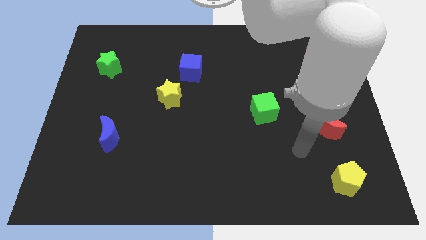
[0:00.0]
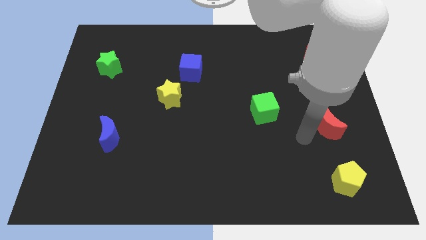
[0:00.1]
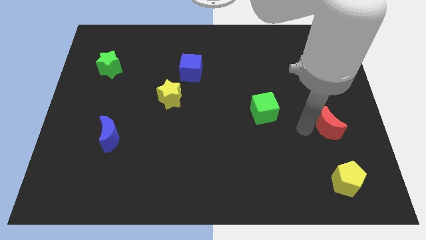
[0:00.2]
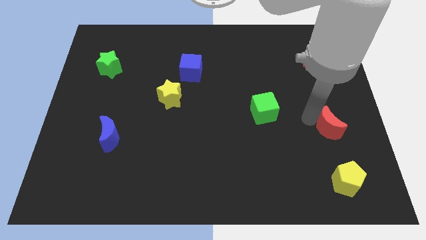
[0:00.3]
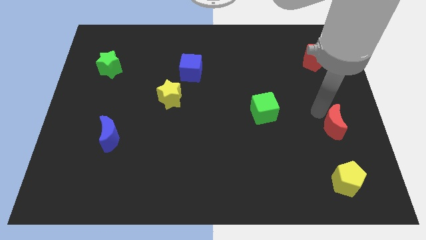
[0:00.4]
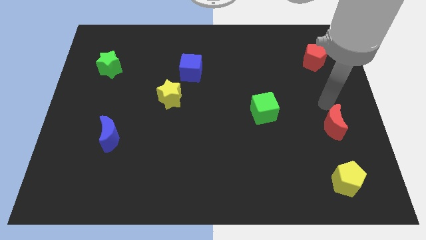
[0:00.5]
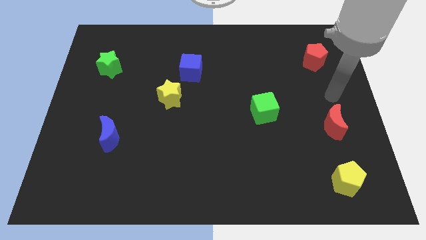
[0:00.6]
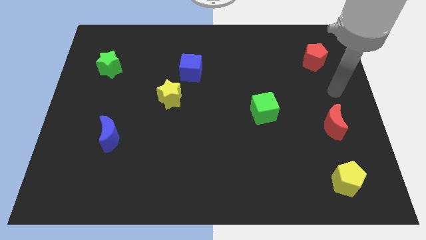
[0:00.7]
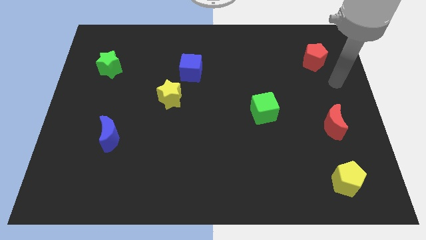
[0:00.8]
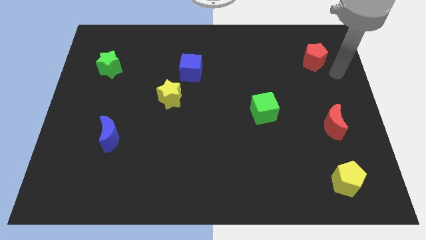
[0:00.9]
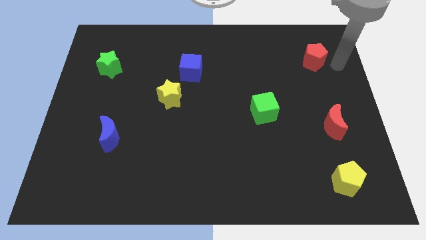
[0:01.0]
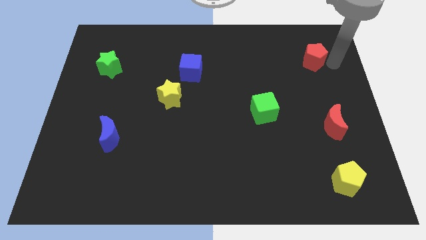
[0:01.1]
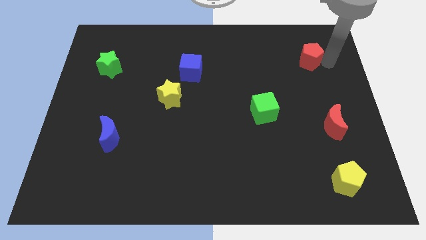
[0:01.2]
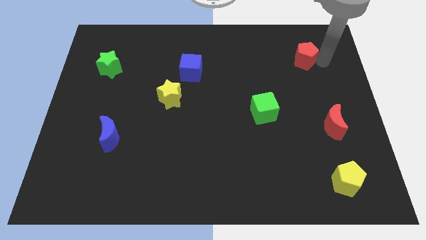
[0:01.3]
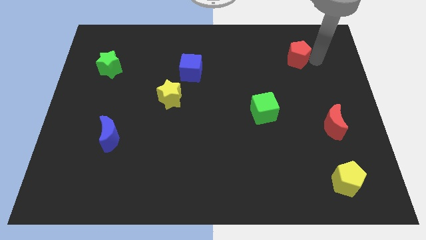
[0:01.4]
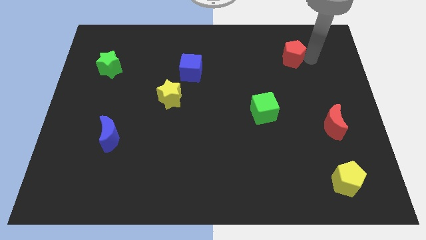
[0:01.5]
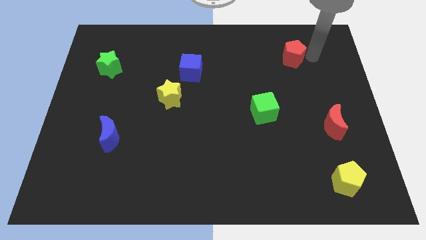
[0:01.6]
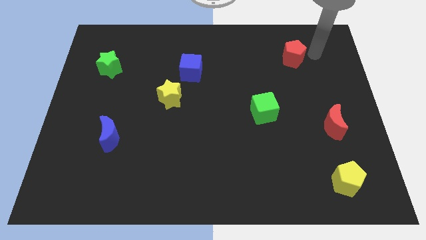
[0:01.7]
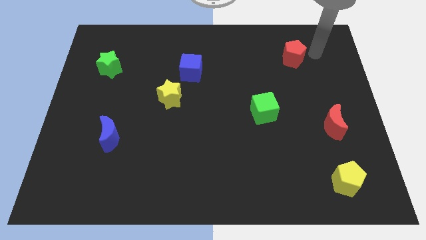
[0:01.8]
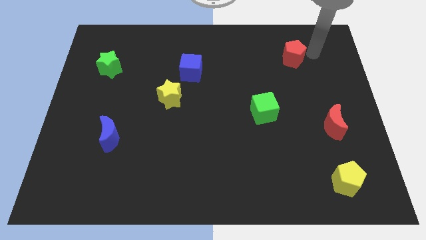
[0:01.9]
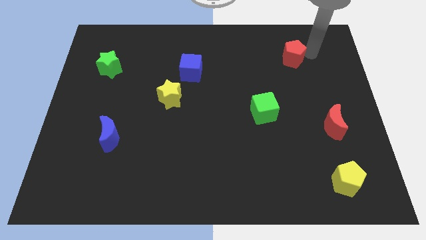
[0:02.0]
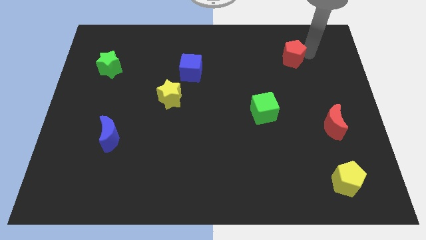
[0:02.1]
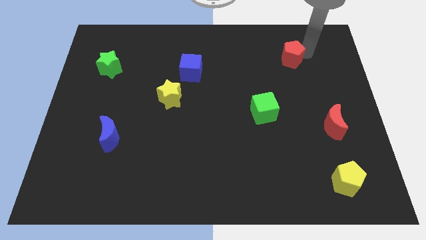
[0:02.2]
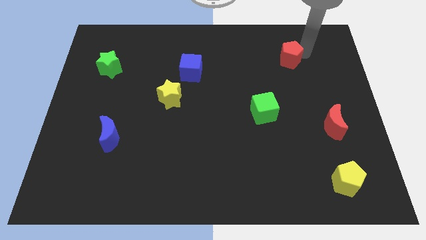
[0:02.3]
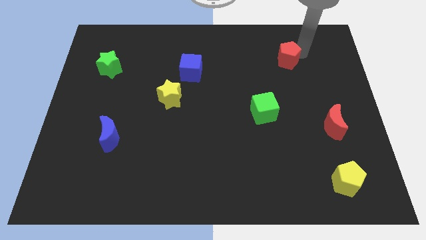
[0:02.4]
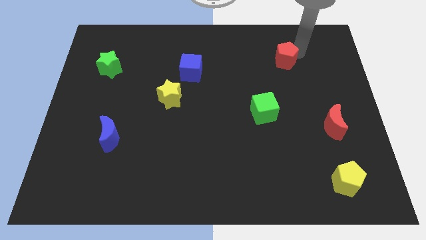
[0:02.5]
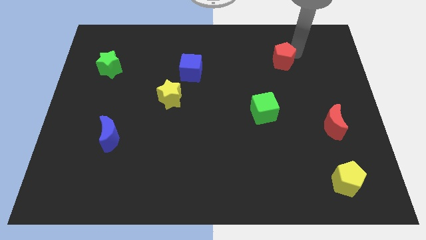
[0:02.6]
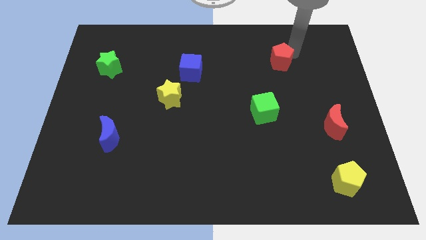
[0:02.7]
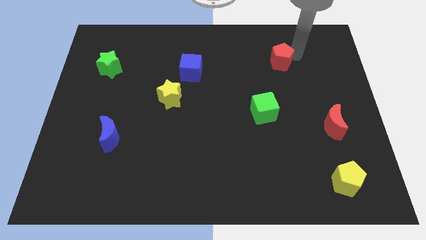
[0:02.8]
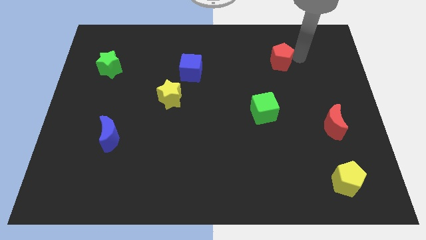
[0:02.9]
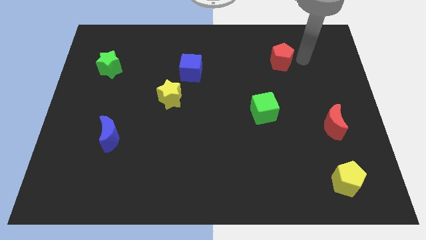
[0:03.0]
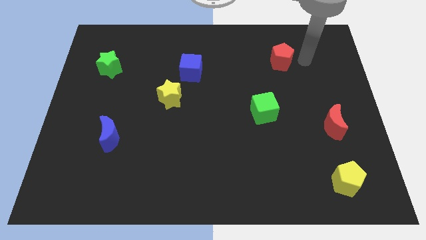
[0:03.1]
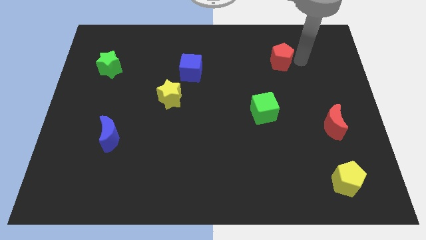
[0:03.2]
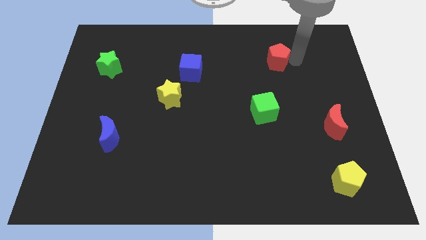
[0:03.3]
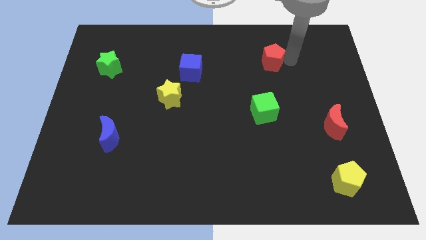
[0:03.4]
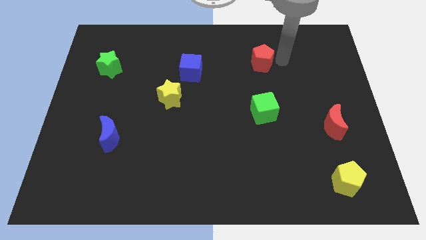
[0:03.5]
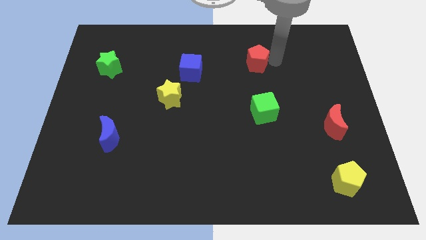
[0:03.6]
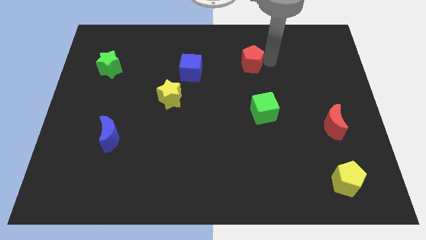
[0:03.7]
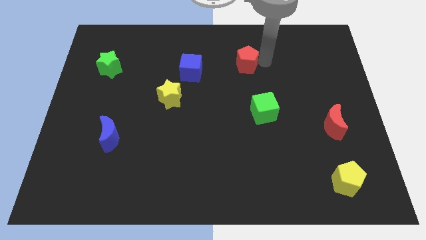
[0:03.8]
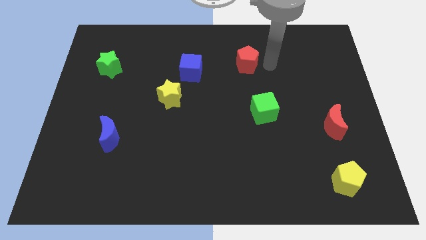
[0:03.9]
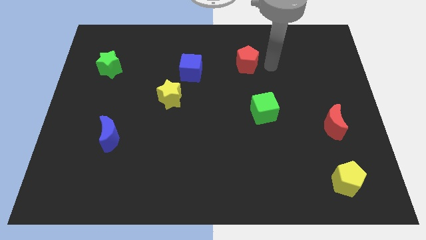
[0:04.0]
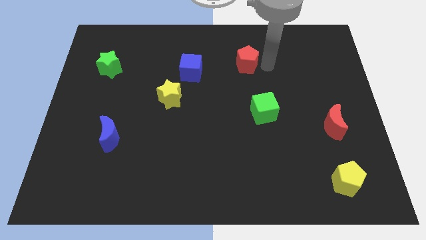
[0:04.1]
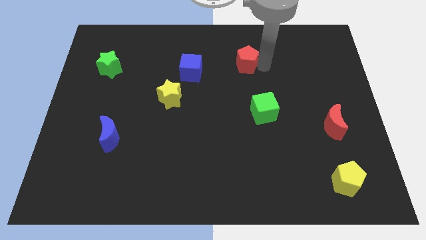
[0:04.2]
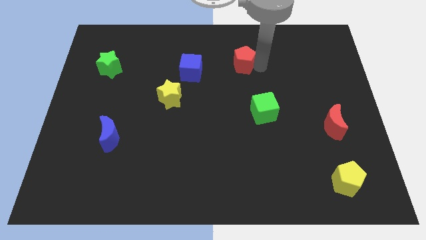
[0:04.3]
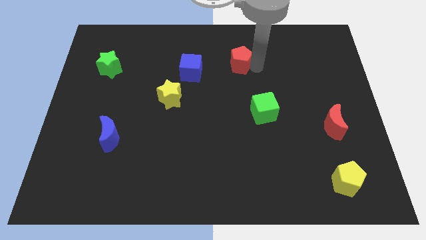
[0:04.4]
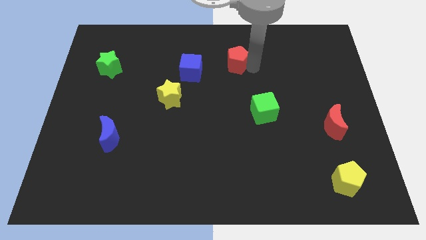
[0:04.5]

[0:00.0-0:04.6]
push the red pentagon to the left

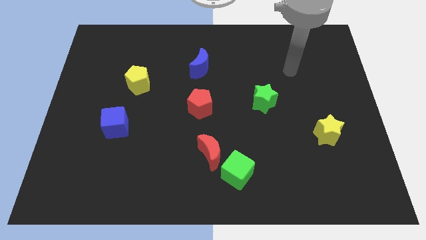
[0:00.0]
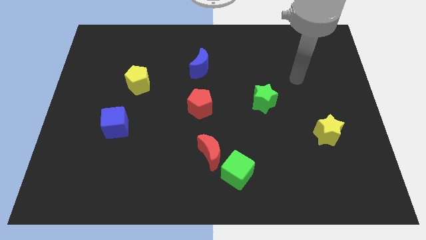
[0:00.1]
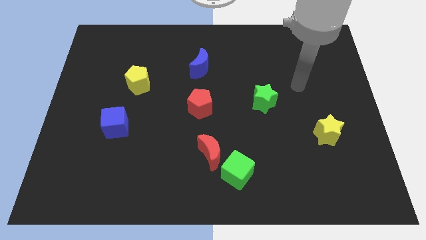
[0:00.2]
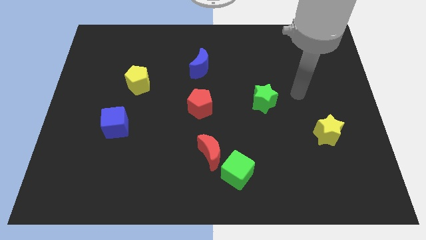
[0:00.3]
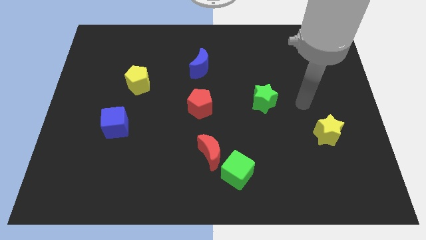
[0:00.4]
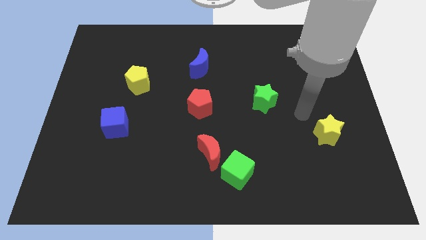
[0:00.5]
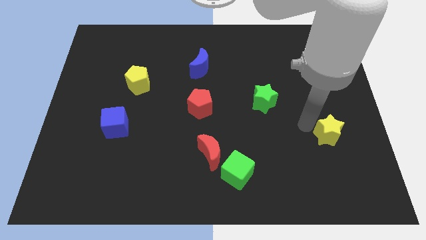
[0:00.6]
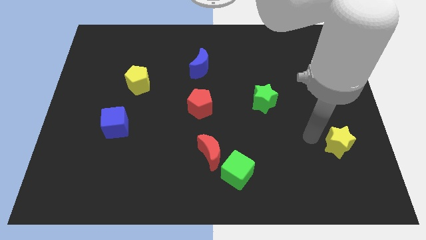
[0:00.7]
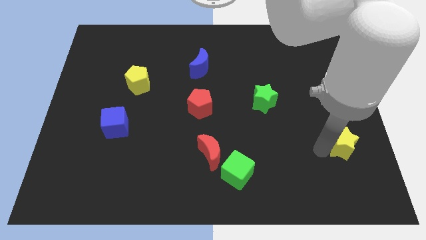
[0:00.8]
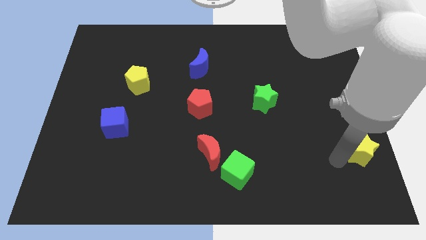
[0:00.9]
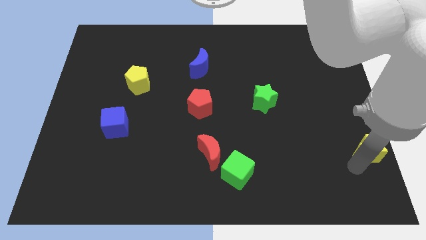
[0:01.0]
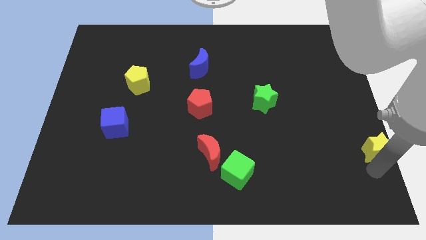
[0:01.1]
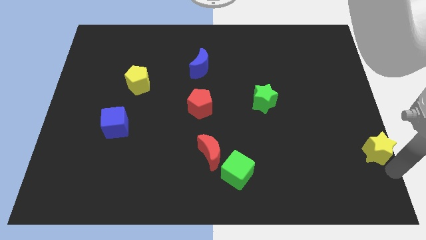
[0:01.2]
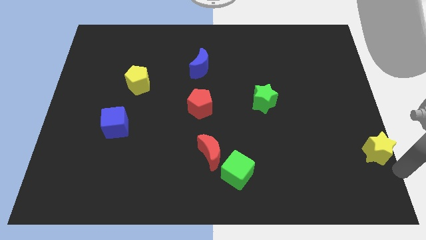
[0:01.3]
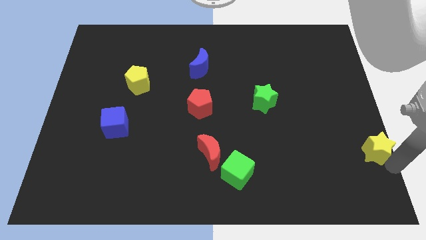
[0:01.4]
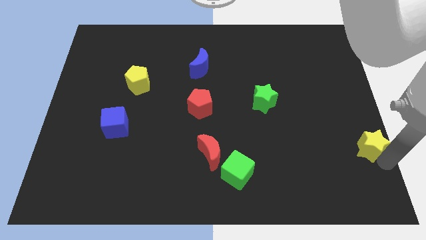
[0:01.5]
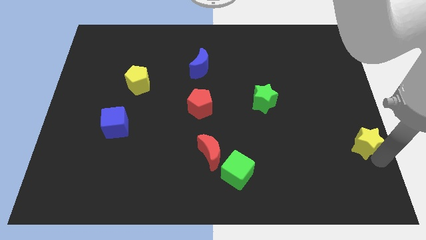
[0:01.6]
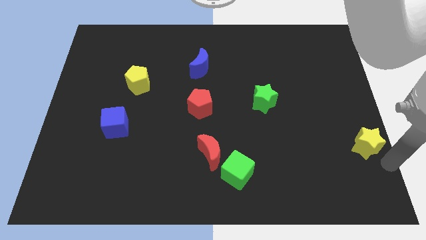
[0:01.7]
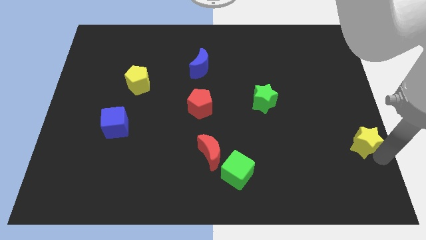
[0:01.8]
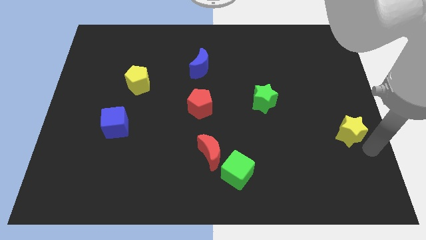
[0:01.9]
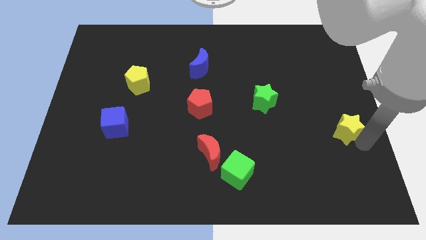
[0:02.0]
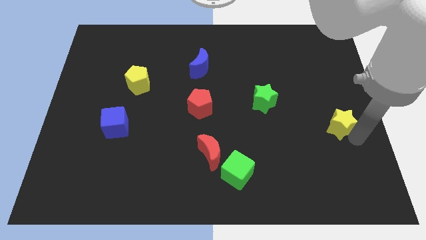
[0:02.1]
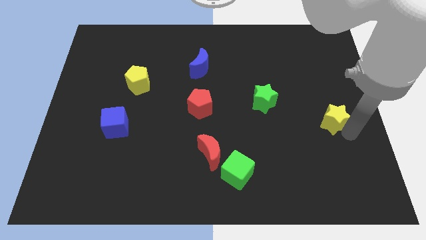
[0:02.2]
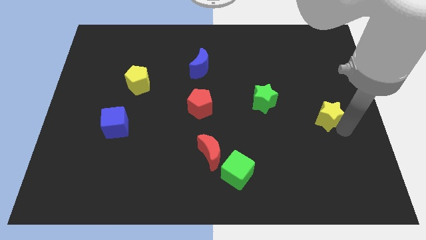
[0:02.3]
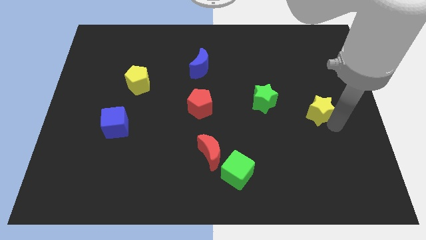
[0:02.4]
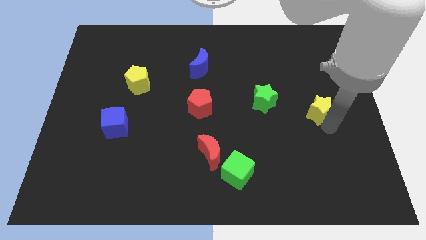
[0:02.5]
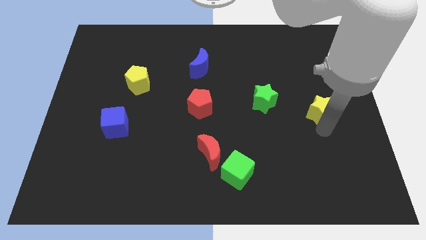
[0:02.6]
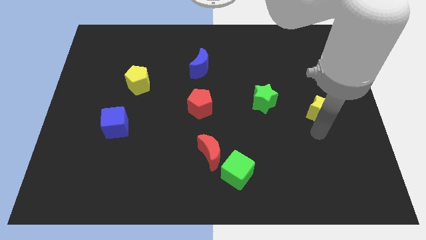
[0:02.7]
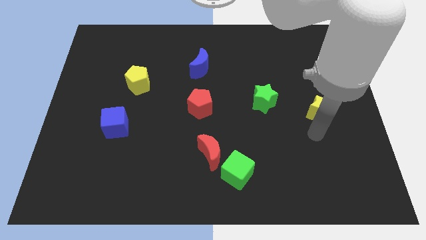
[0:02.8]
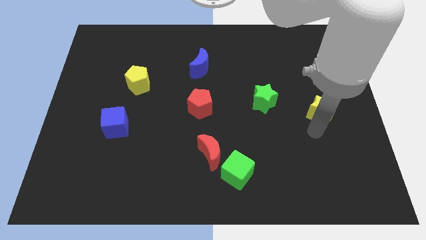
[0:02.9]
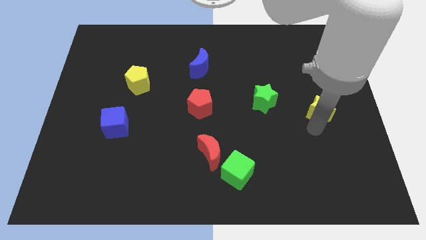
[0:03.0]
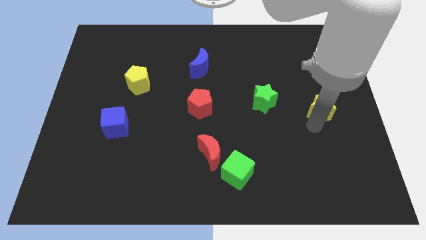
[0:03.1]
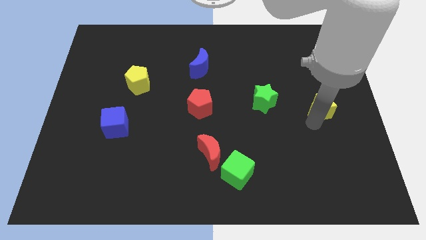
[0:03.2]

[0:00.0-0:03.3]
move the yellow star somewhat upwards

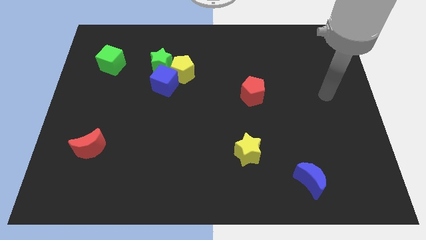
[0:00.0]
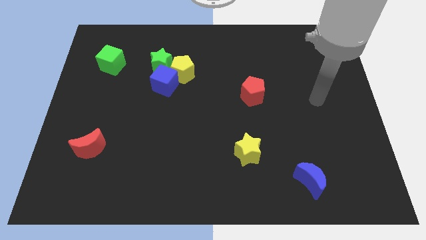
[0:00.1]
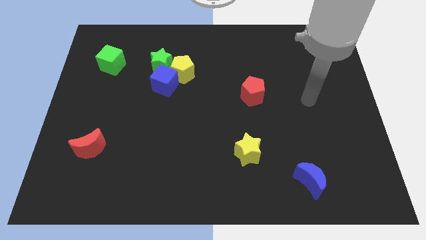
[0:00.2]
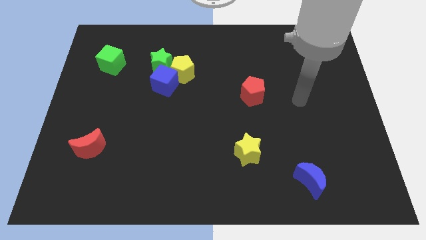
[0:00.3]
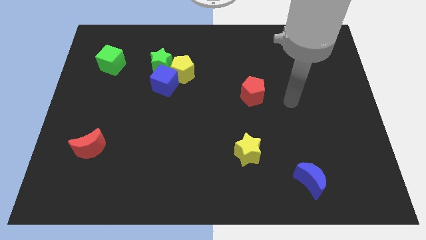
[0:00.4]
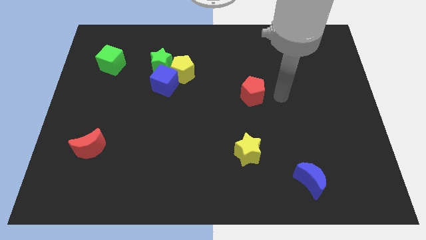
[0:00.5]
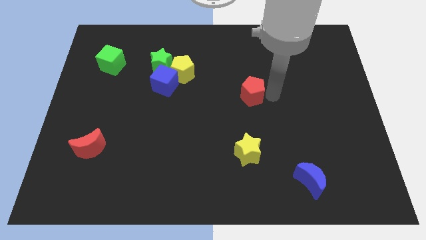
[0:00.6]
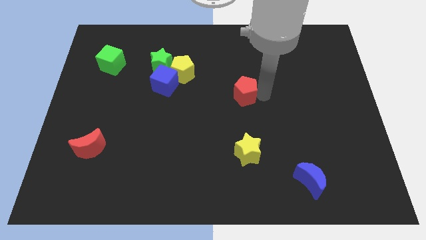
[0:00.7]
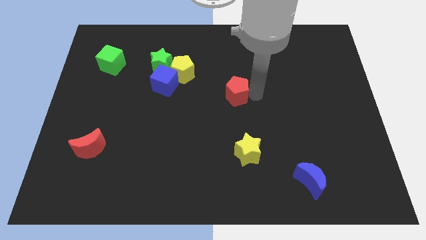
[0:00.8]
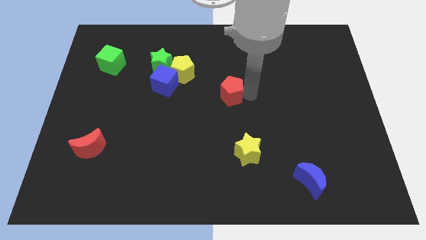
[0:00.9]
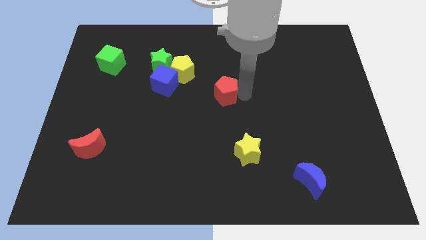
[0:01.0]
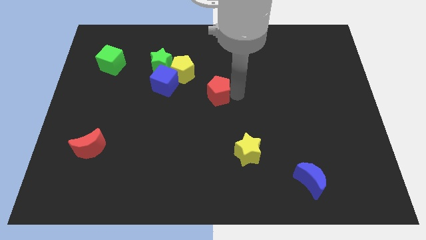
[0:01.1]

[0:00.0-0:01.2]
move the red pentagon to the left a little bit
